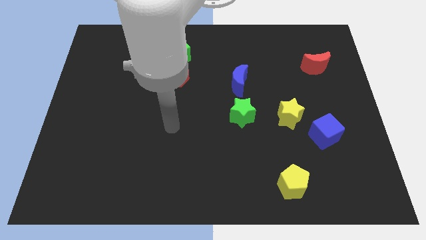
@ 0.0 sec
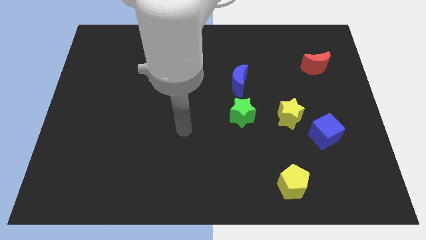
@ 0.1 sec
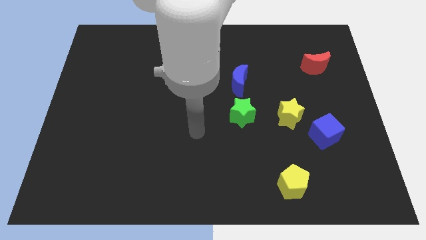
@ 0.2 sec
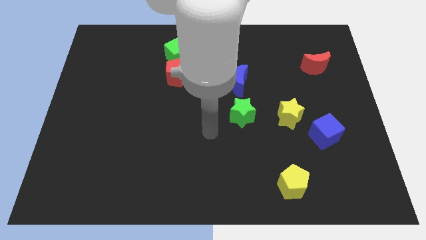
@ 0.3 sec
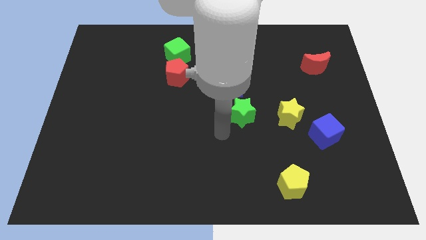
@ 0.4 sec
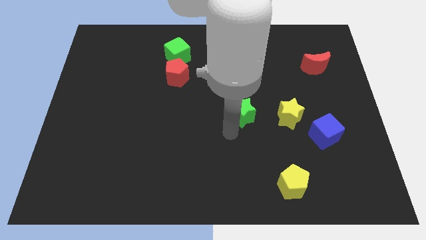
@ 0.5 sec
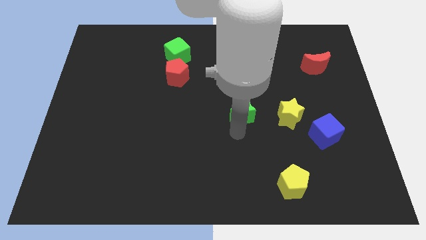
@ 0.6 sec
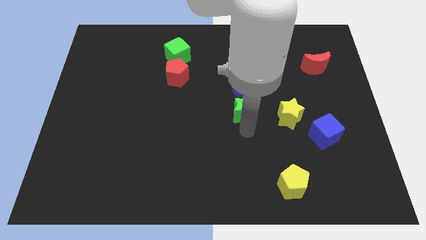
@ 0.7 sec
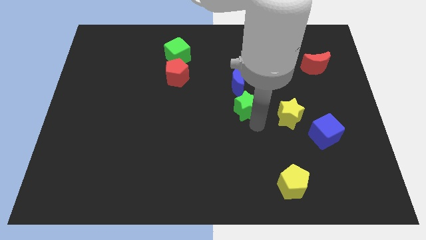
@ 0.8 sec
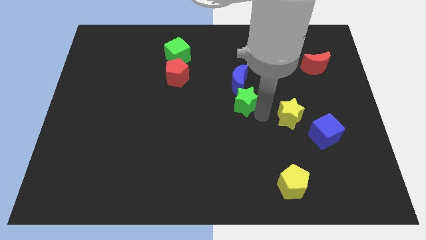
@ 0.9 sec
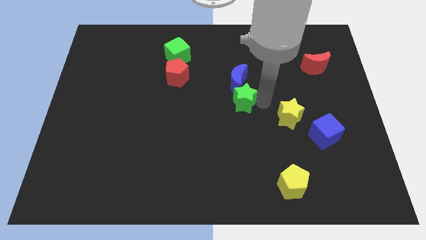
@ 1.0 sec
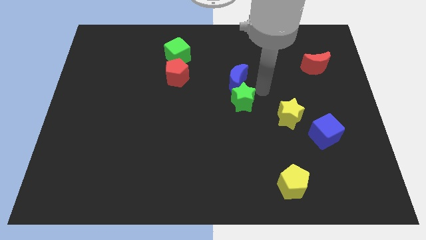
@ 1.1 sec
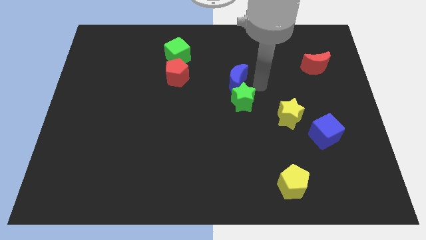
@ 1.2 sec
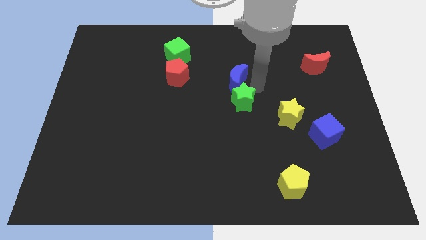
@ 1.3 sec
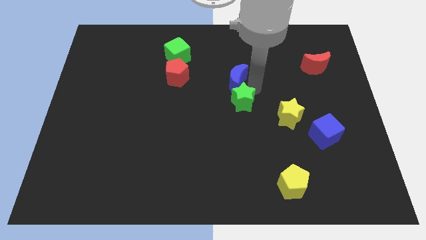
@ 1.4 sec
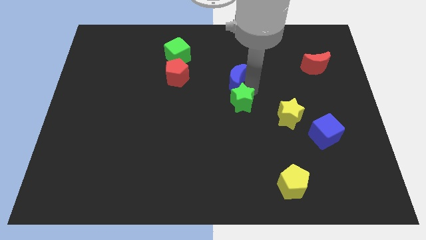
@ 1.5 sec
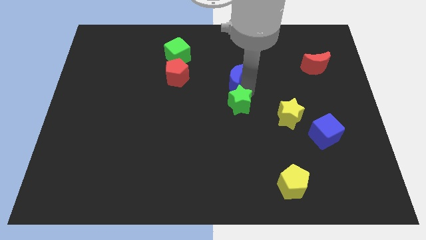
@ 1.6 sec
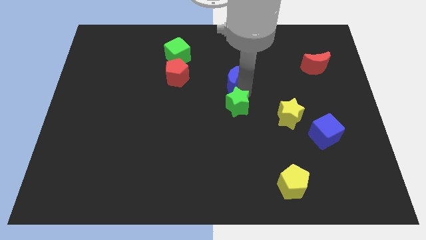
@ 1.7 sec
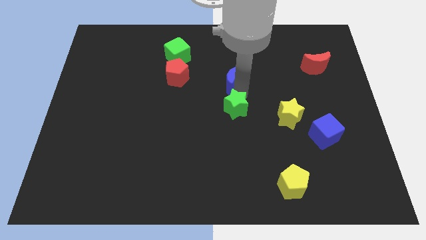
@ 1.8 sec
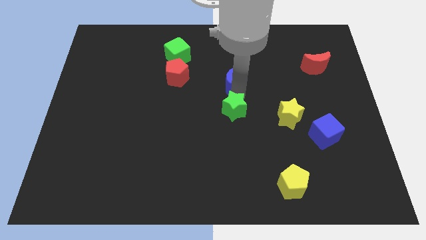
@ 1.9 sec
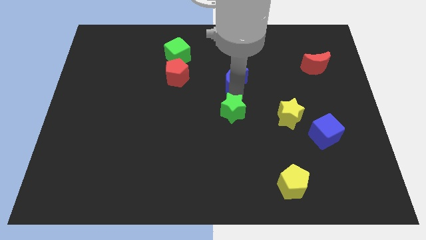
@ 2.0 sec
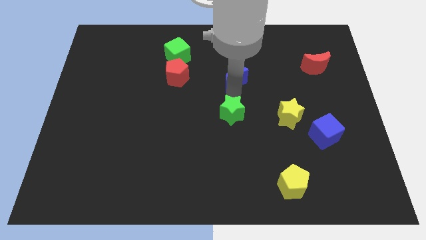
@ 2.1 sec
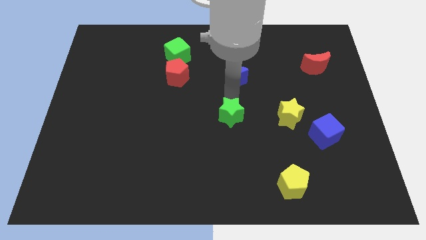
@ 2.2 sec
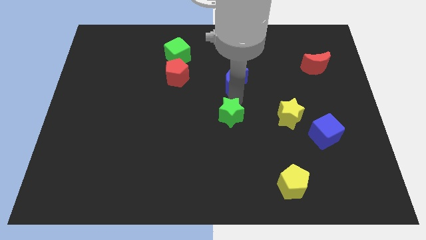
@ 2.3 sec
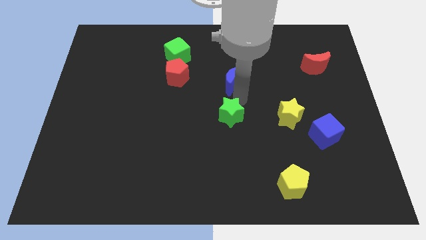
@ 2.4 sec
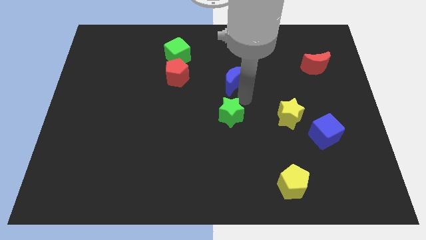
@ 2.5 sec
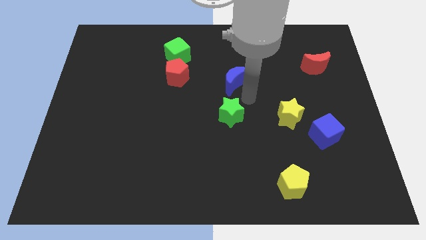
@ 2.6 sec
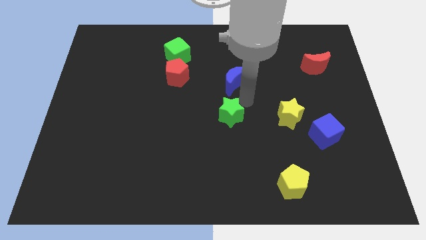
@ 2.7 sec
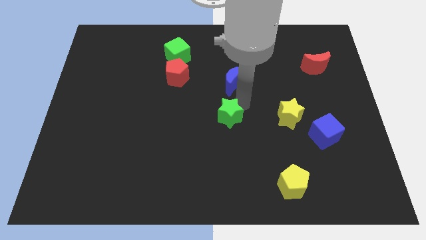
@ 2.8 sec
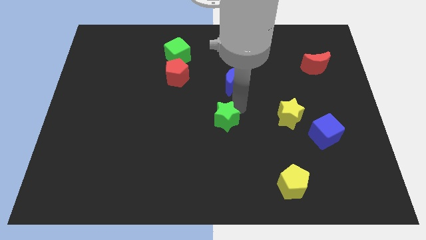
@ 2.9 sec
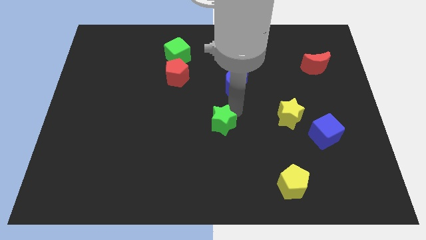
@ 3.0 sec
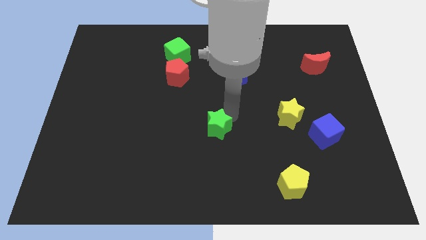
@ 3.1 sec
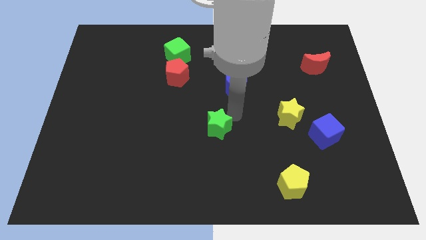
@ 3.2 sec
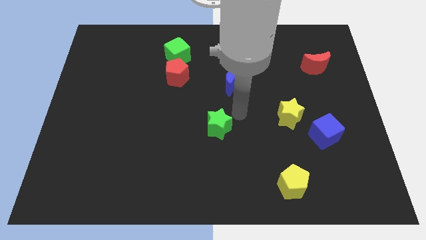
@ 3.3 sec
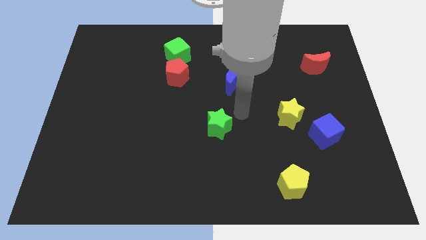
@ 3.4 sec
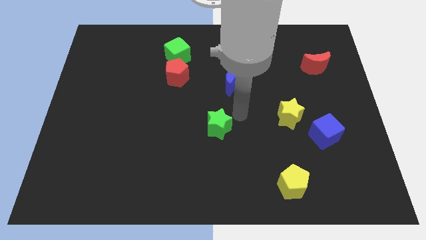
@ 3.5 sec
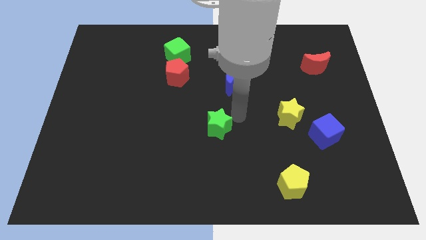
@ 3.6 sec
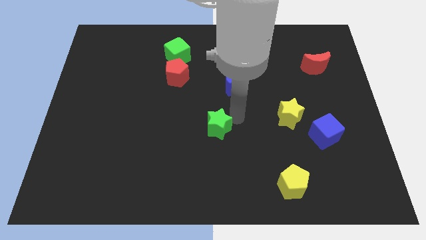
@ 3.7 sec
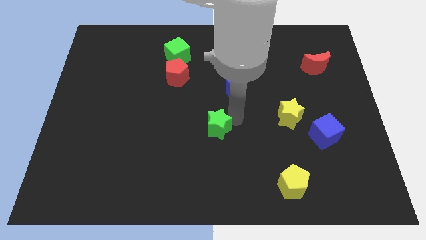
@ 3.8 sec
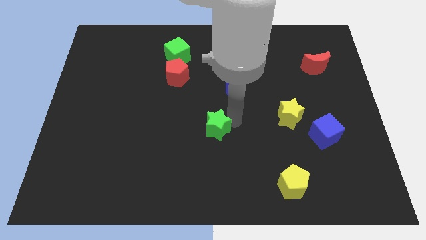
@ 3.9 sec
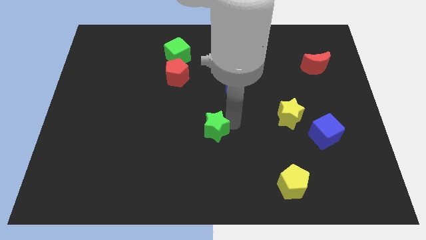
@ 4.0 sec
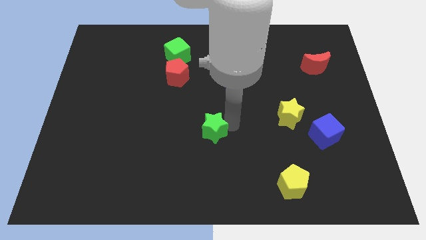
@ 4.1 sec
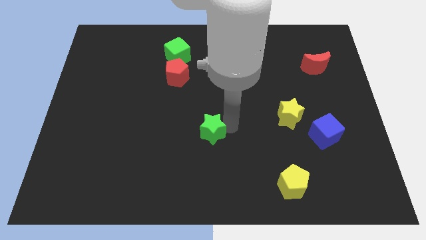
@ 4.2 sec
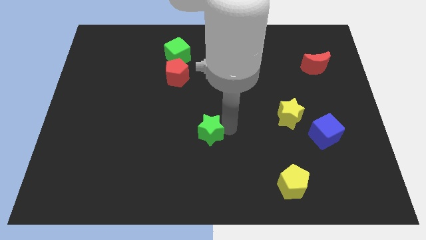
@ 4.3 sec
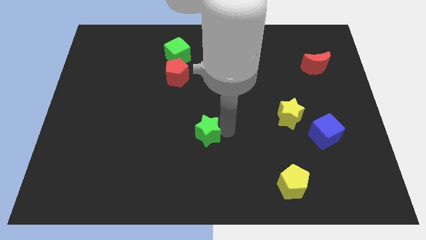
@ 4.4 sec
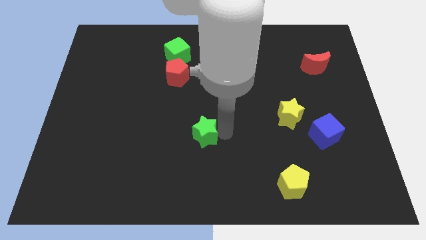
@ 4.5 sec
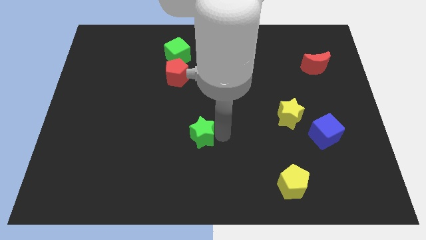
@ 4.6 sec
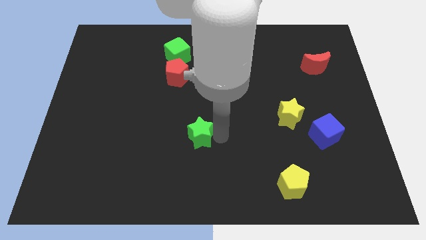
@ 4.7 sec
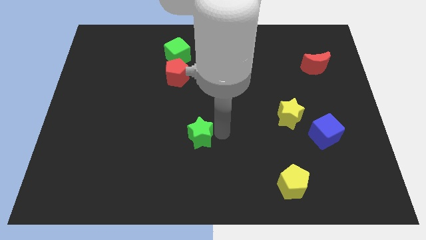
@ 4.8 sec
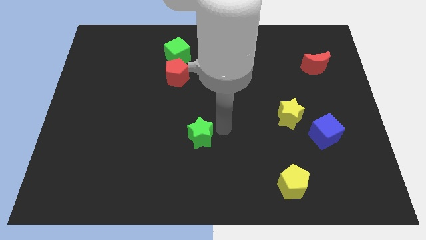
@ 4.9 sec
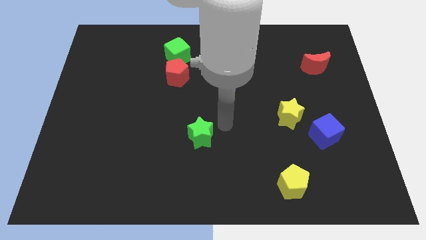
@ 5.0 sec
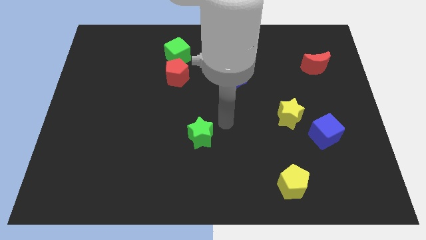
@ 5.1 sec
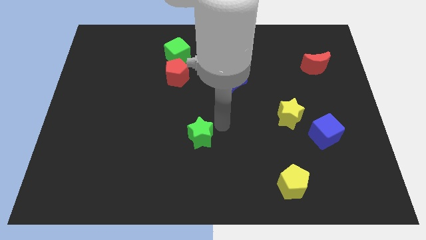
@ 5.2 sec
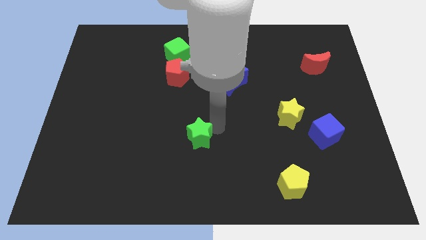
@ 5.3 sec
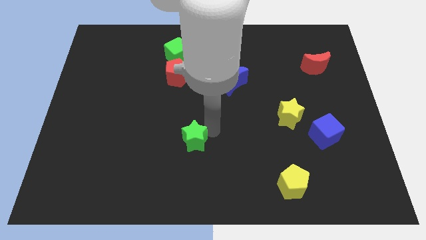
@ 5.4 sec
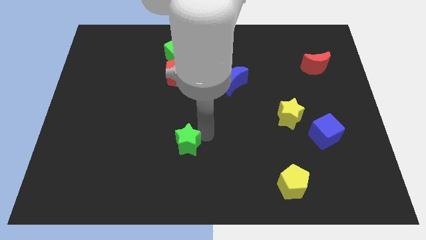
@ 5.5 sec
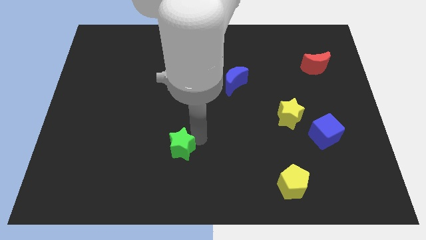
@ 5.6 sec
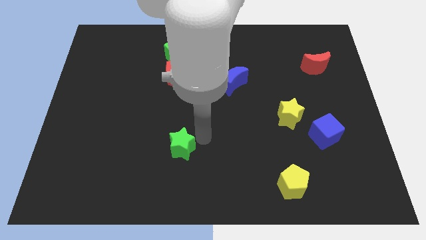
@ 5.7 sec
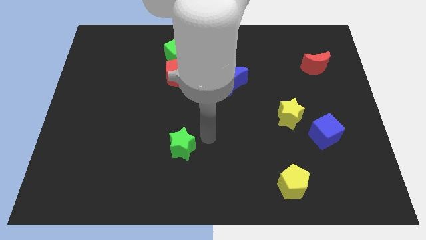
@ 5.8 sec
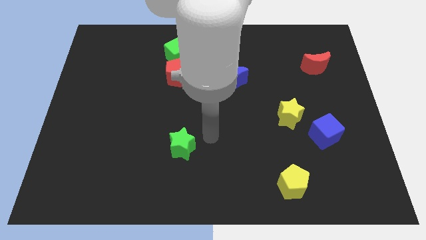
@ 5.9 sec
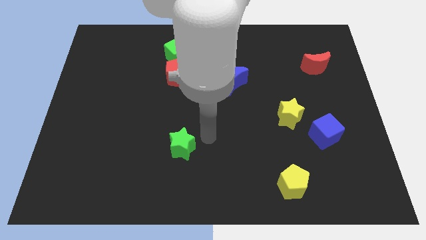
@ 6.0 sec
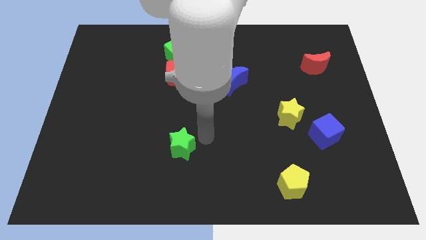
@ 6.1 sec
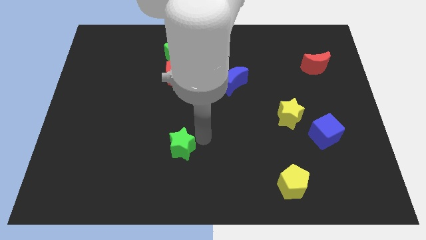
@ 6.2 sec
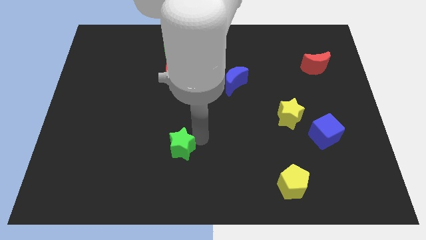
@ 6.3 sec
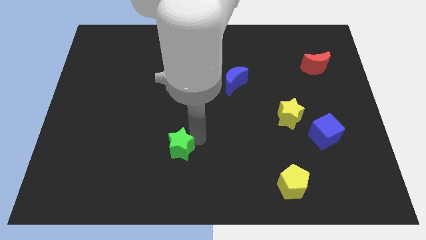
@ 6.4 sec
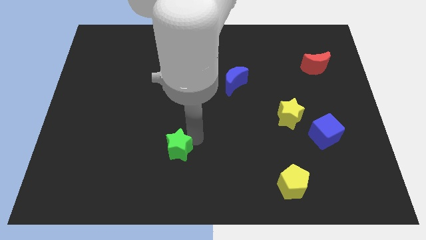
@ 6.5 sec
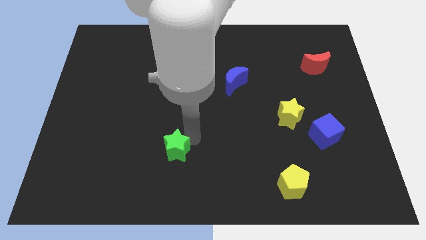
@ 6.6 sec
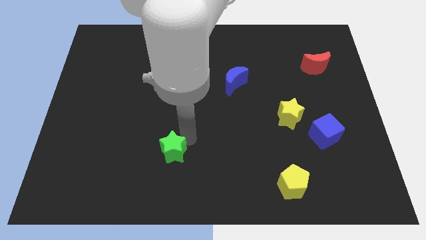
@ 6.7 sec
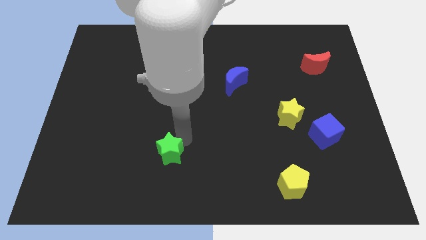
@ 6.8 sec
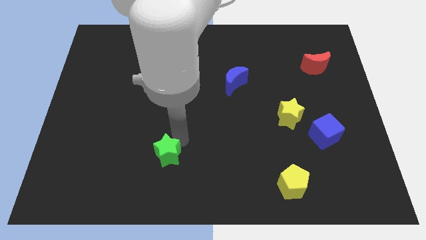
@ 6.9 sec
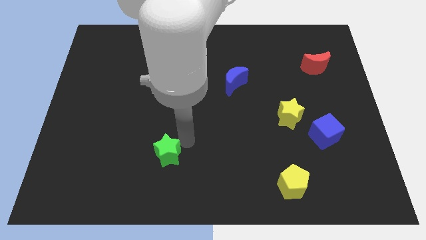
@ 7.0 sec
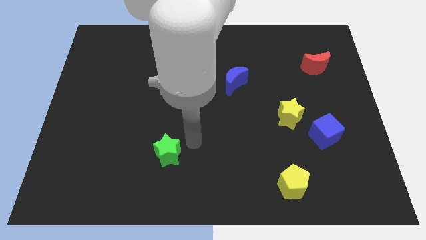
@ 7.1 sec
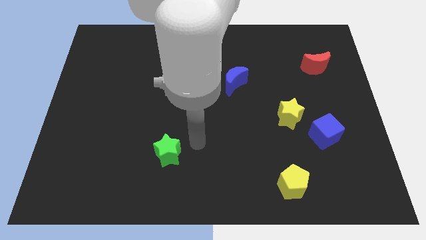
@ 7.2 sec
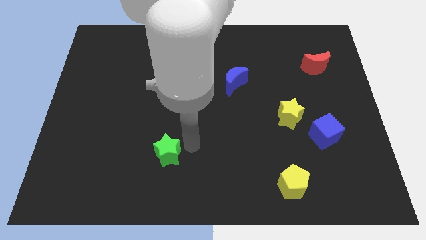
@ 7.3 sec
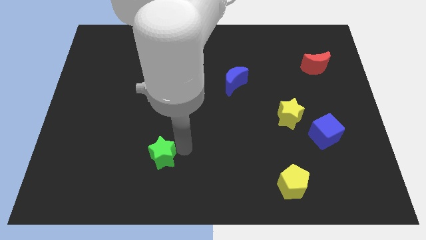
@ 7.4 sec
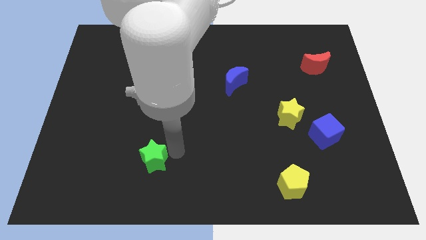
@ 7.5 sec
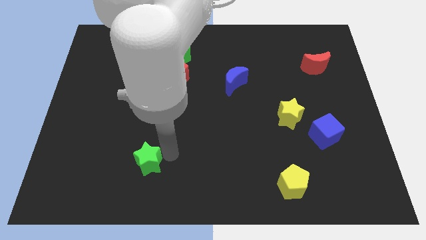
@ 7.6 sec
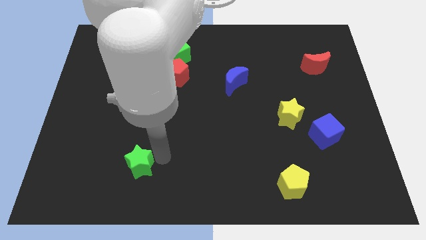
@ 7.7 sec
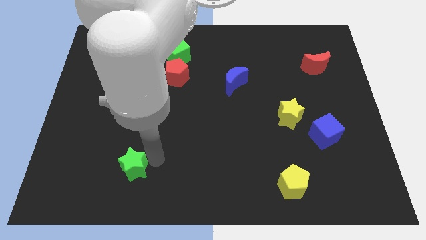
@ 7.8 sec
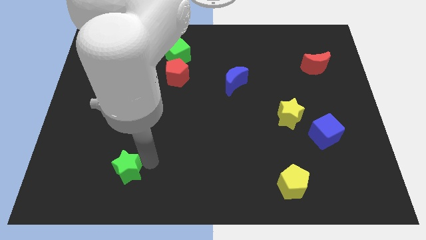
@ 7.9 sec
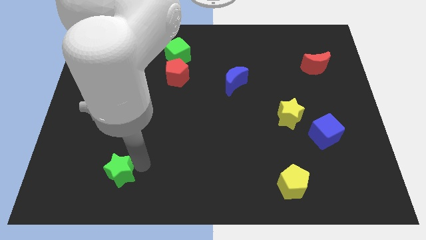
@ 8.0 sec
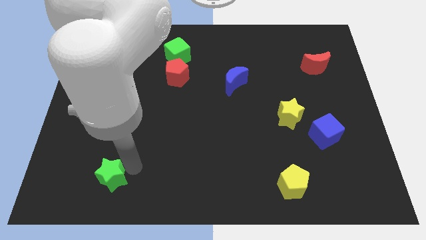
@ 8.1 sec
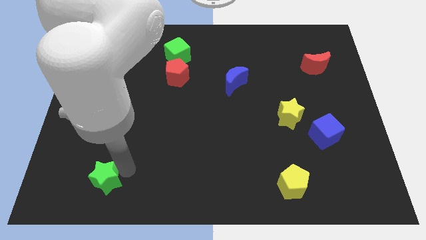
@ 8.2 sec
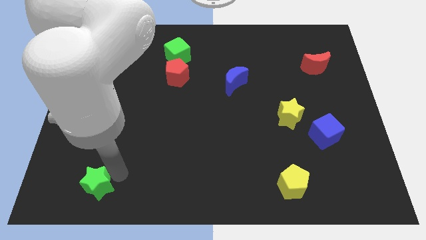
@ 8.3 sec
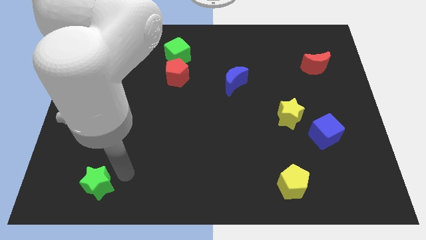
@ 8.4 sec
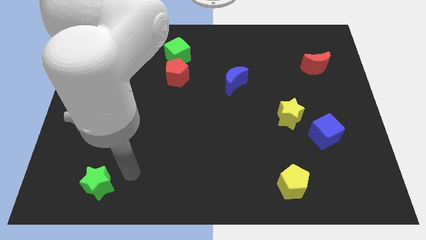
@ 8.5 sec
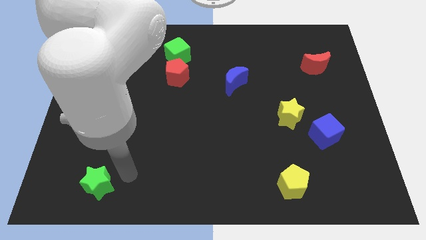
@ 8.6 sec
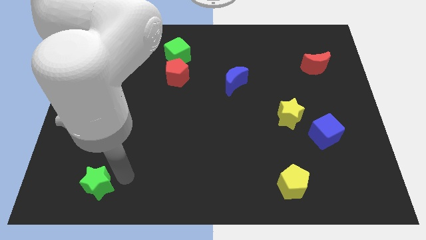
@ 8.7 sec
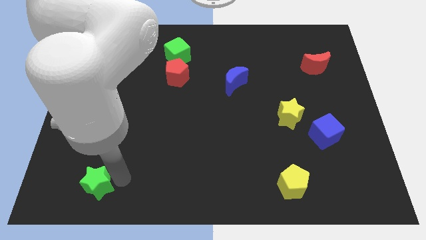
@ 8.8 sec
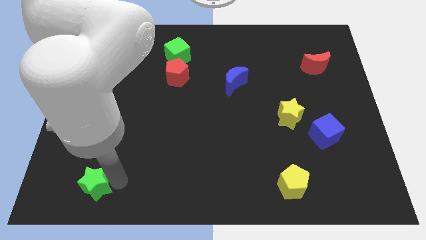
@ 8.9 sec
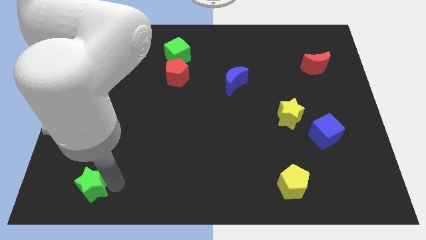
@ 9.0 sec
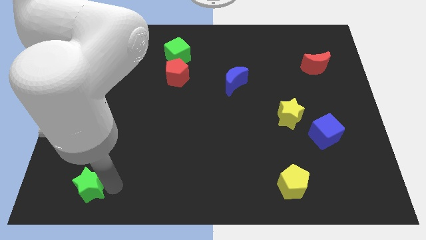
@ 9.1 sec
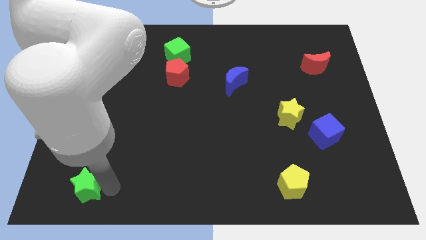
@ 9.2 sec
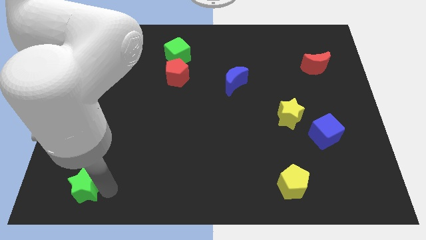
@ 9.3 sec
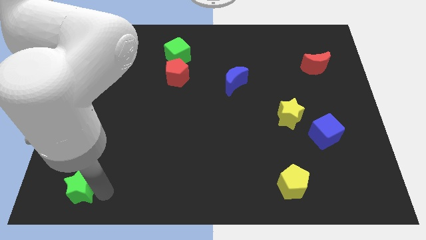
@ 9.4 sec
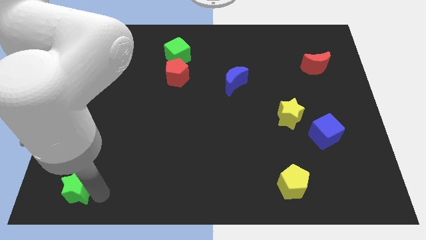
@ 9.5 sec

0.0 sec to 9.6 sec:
move the green star to the bottom left
